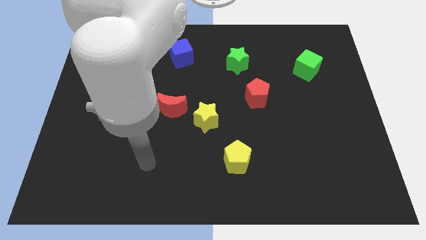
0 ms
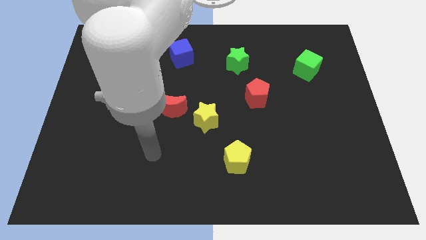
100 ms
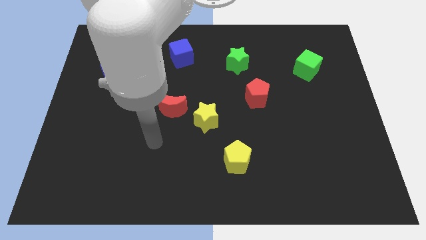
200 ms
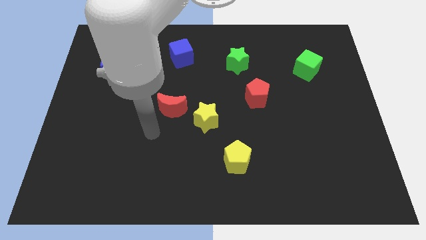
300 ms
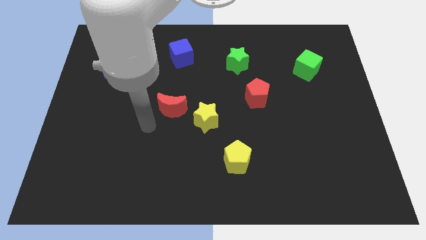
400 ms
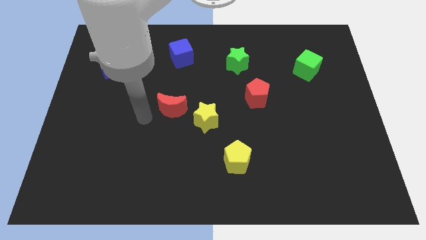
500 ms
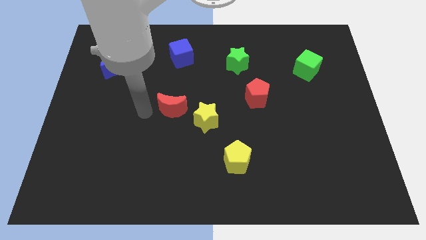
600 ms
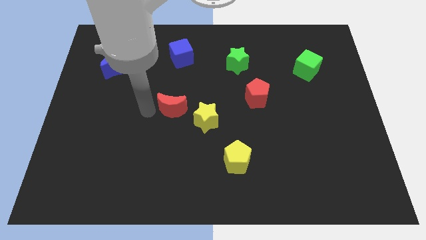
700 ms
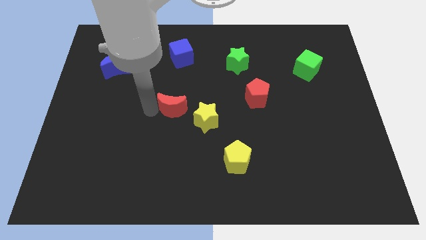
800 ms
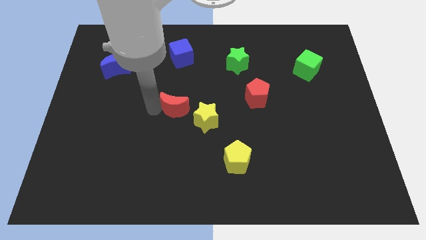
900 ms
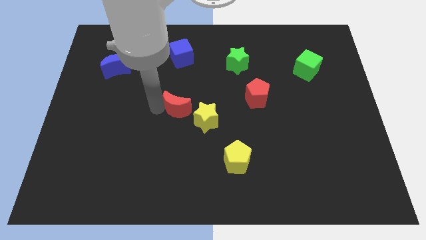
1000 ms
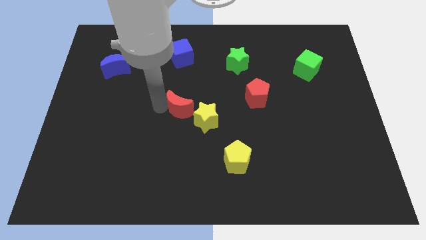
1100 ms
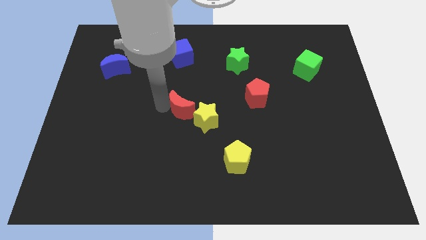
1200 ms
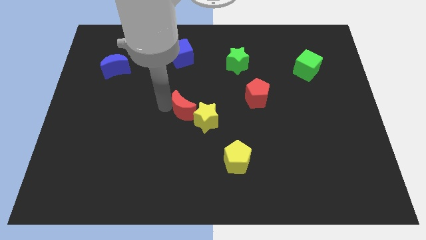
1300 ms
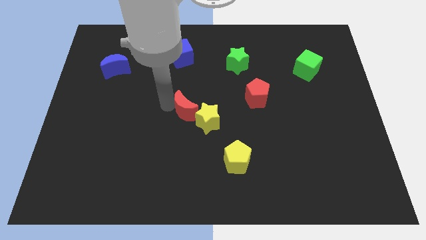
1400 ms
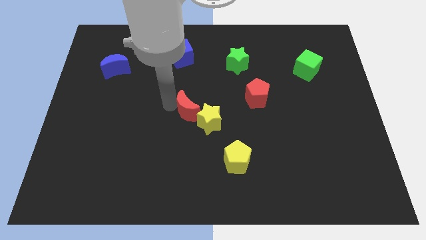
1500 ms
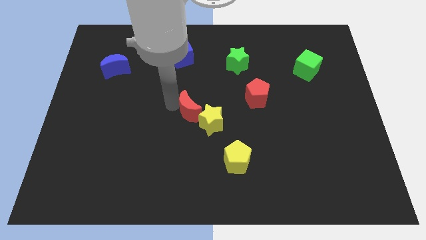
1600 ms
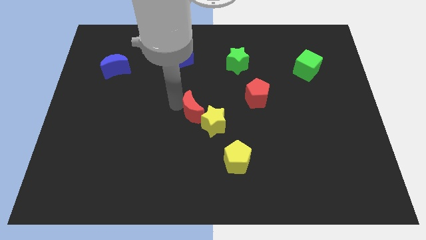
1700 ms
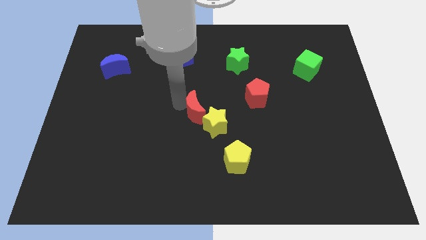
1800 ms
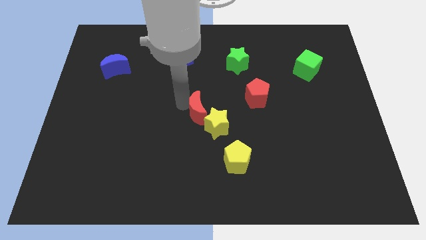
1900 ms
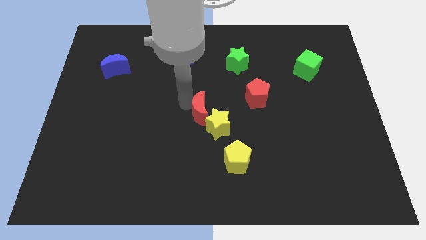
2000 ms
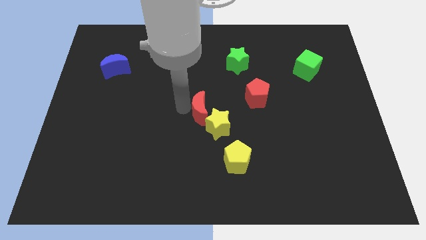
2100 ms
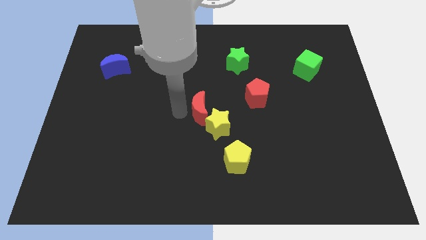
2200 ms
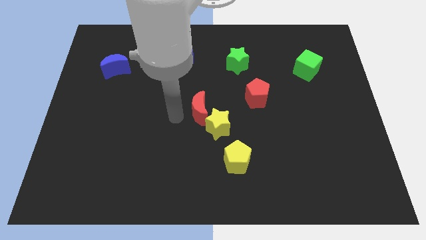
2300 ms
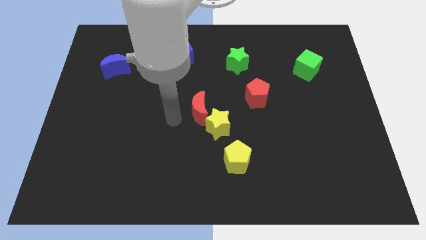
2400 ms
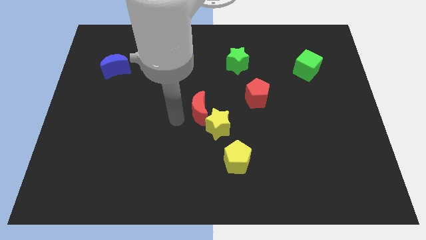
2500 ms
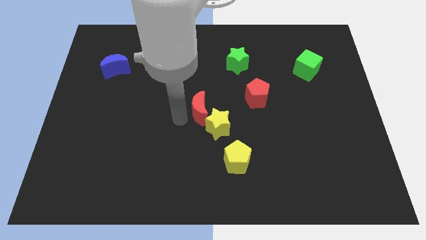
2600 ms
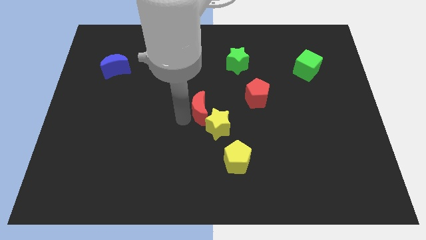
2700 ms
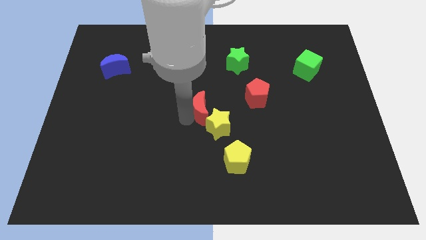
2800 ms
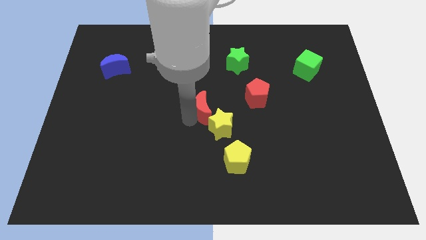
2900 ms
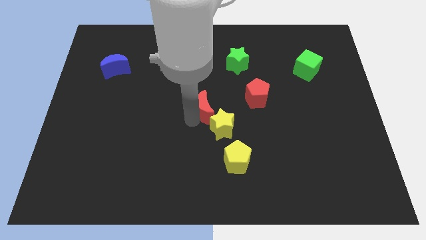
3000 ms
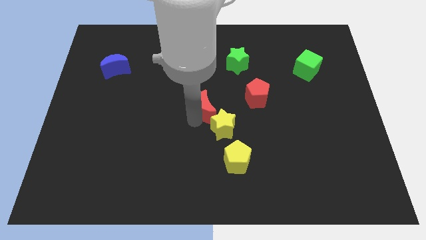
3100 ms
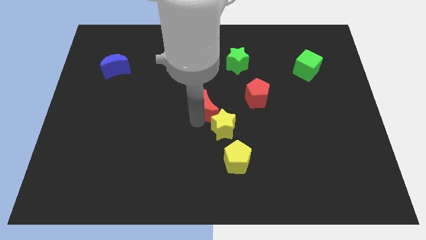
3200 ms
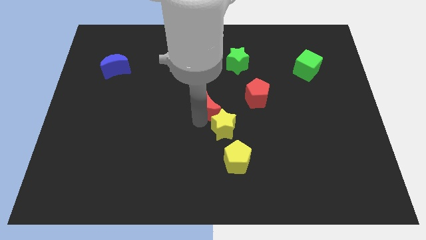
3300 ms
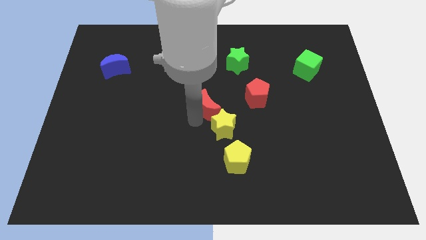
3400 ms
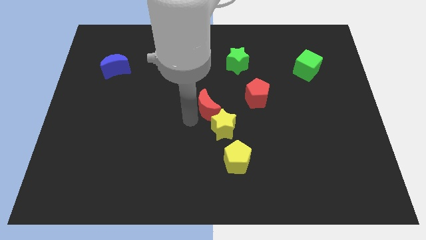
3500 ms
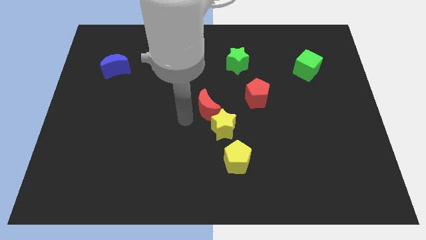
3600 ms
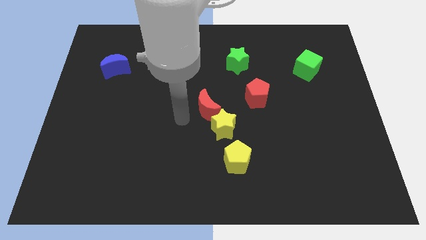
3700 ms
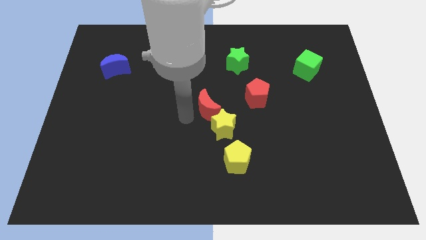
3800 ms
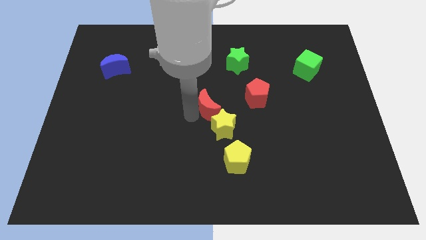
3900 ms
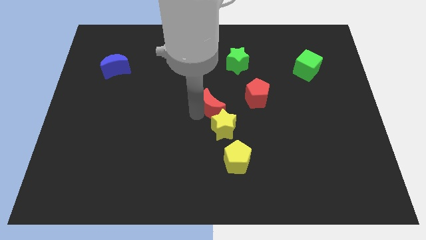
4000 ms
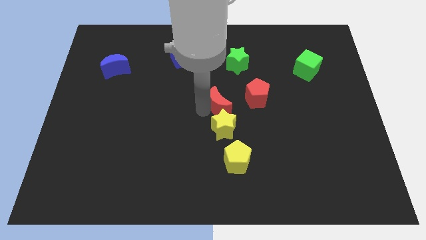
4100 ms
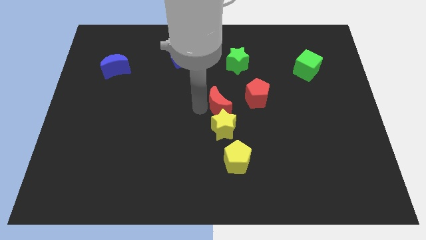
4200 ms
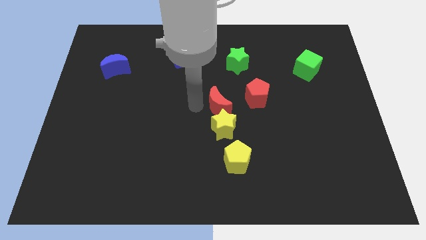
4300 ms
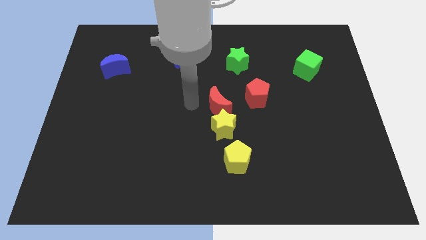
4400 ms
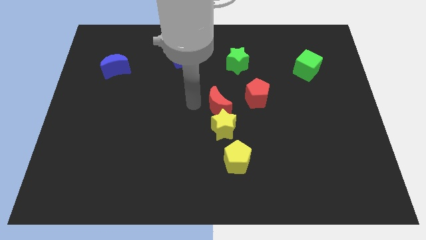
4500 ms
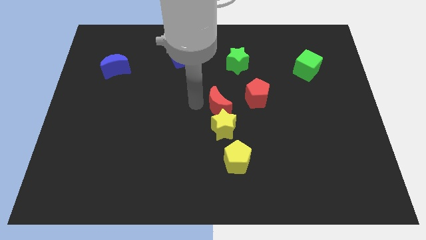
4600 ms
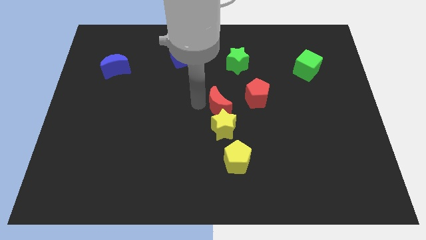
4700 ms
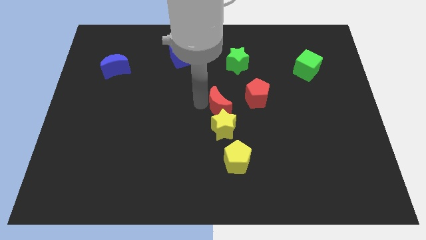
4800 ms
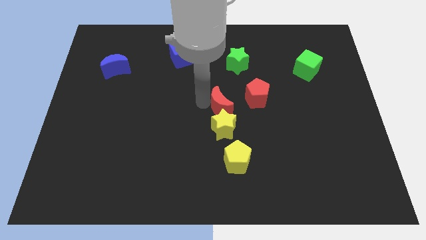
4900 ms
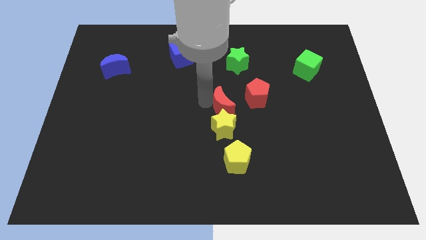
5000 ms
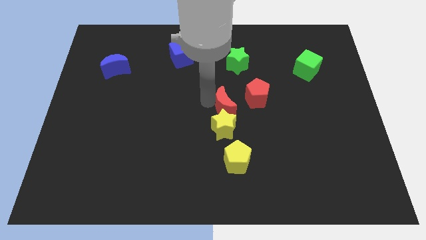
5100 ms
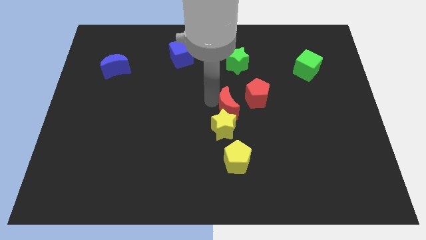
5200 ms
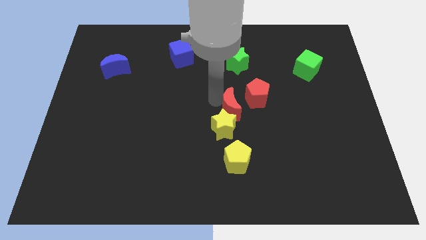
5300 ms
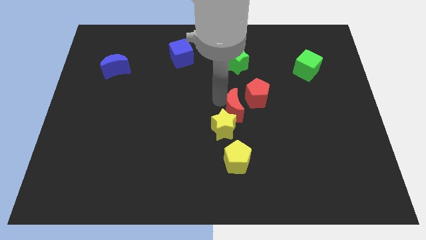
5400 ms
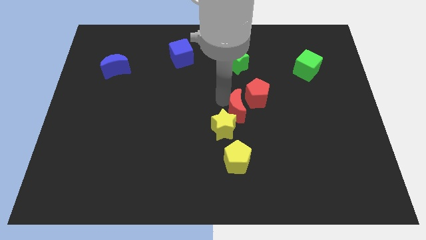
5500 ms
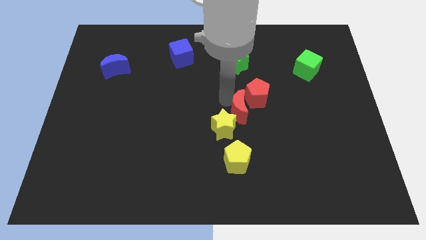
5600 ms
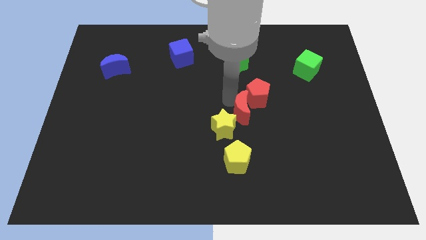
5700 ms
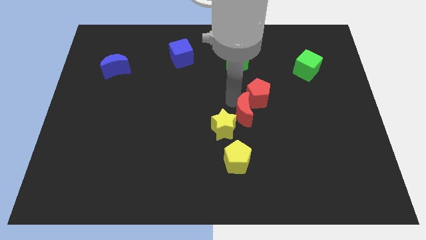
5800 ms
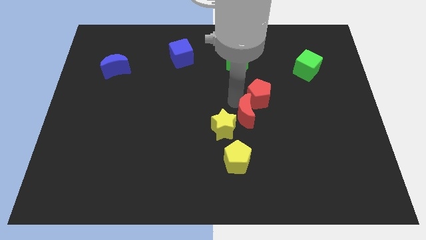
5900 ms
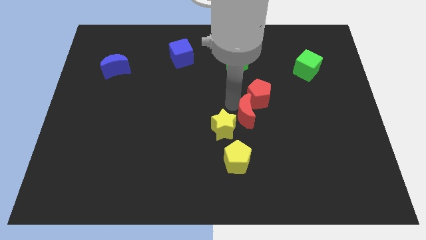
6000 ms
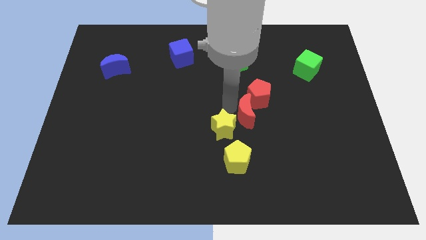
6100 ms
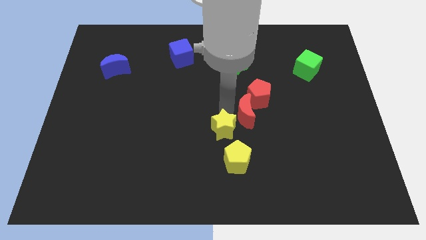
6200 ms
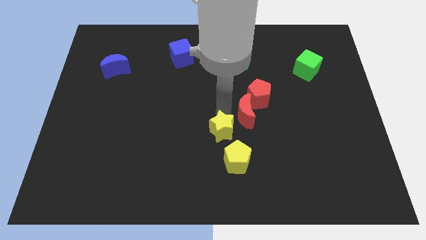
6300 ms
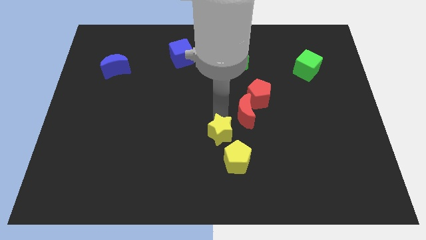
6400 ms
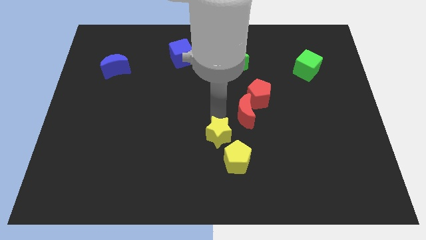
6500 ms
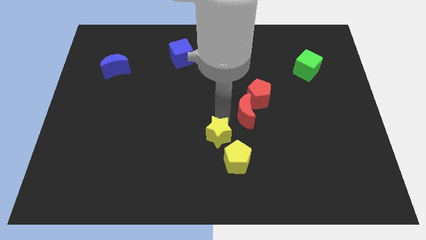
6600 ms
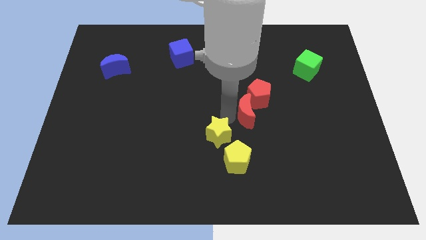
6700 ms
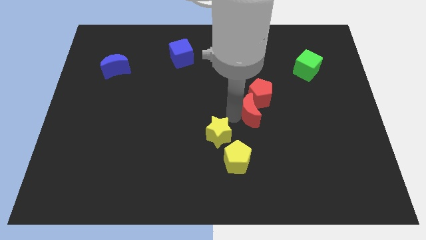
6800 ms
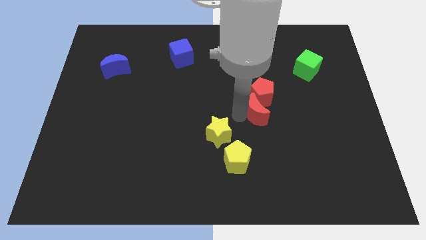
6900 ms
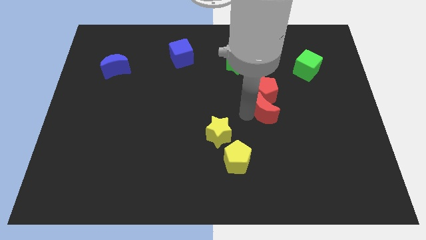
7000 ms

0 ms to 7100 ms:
move the red moon to the bottom right side of the red pentagon
